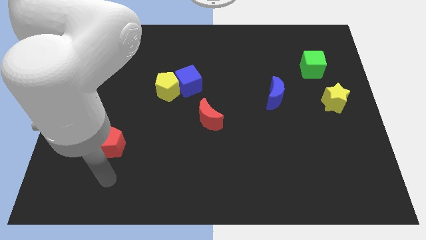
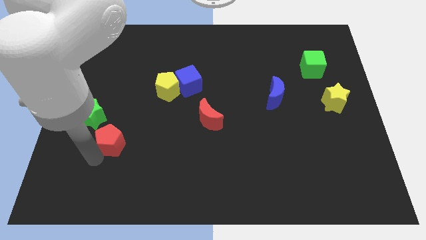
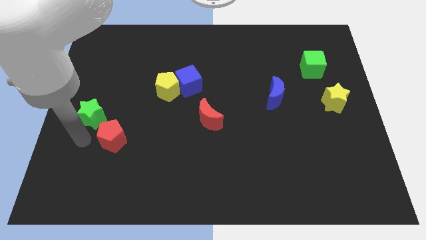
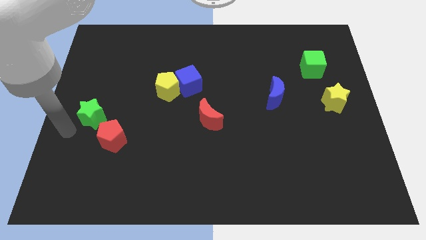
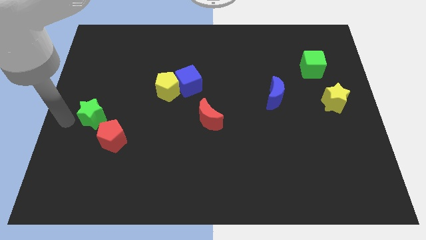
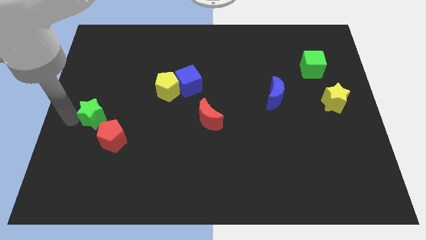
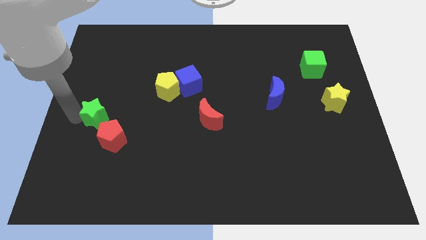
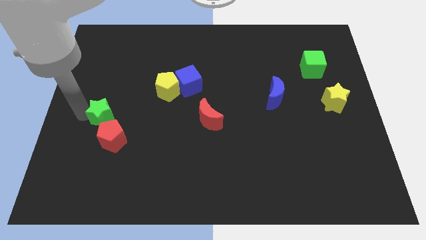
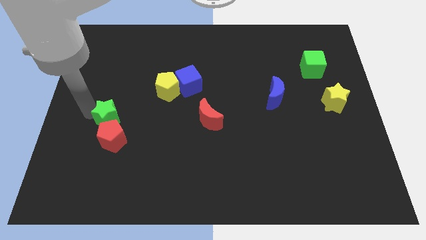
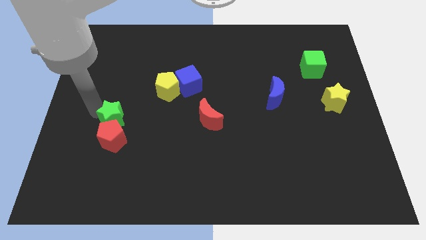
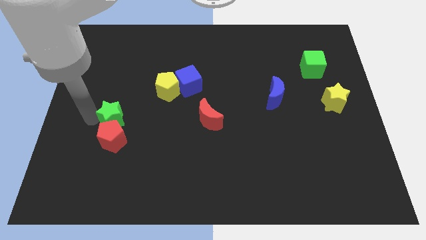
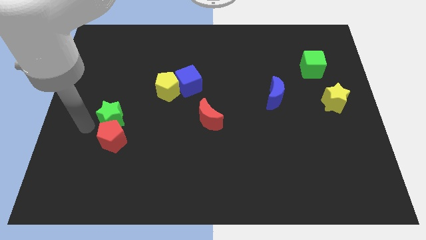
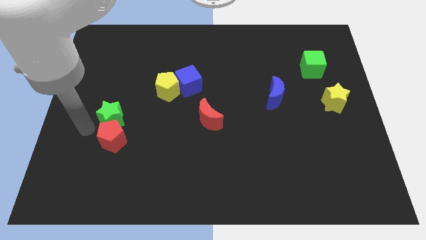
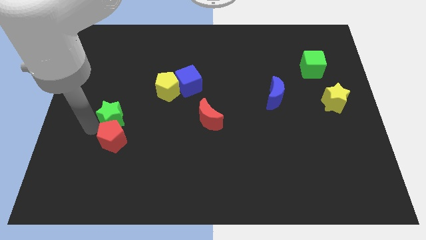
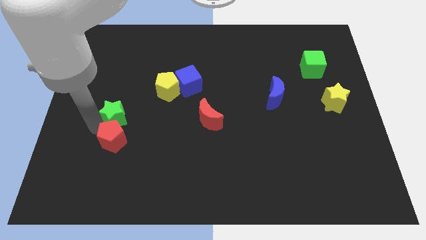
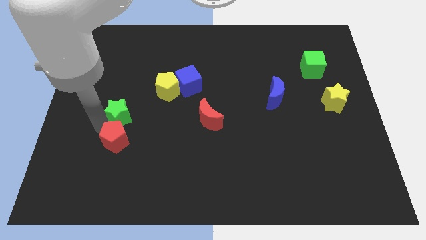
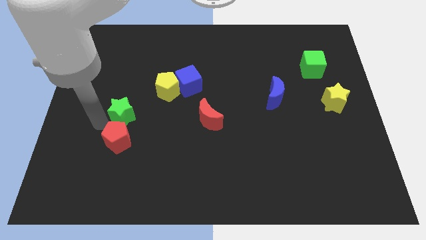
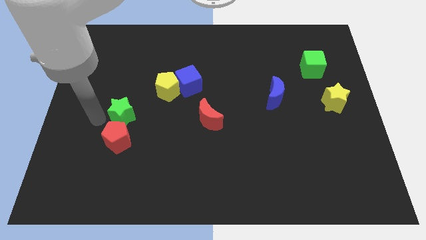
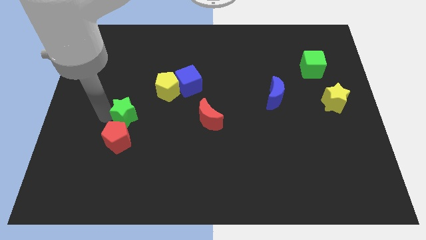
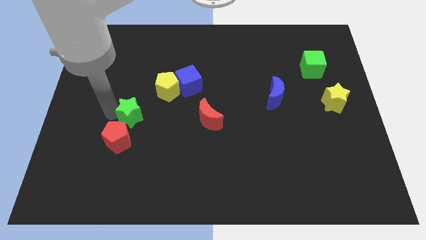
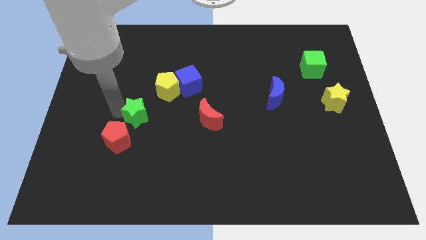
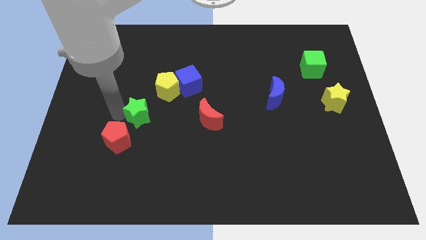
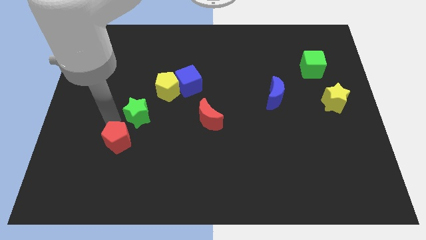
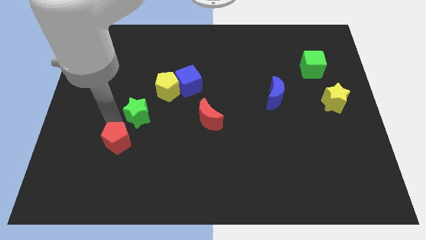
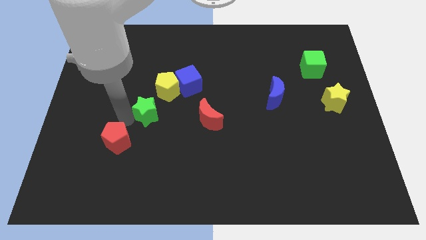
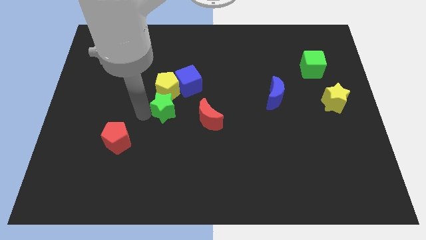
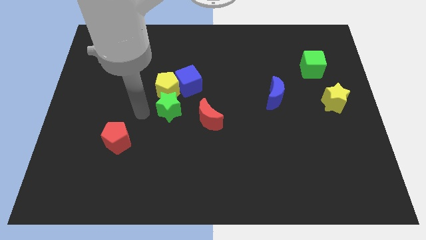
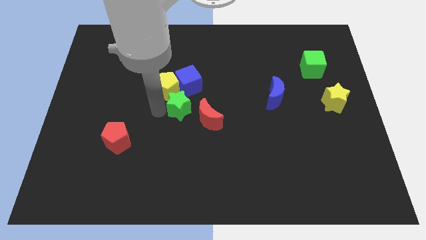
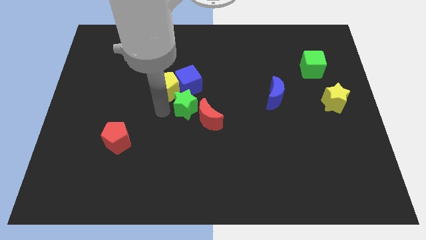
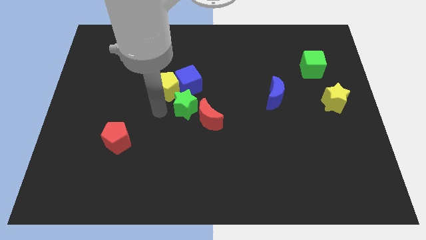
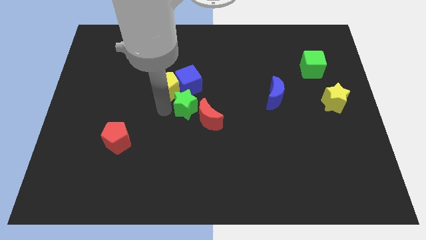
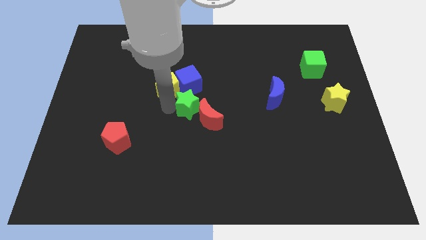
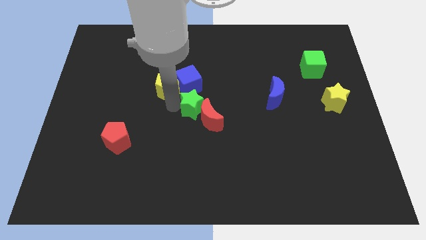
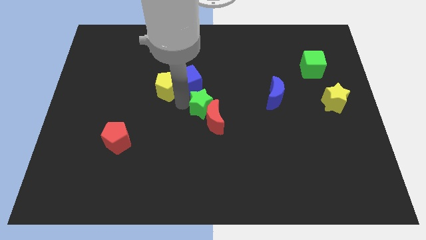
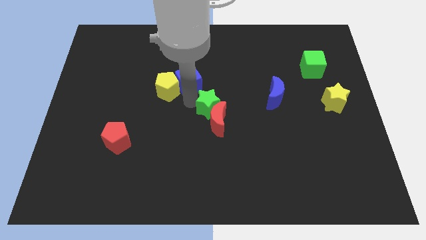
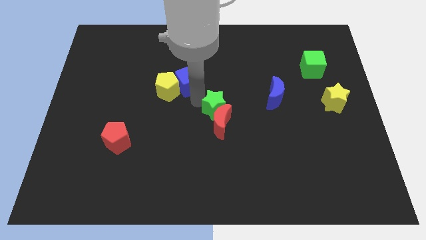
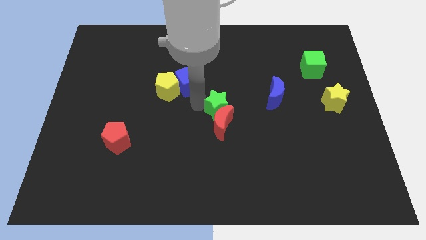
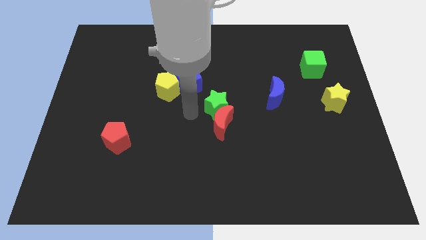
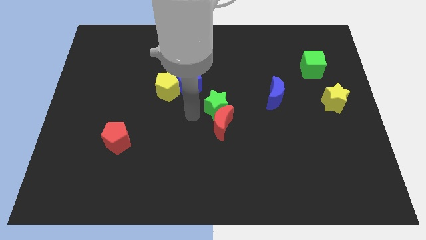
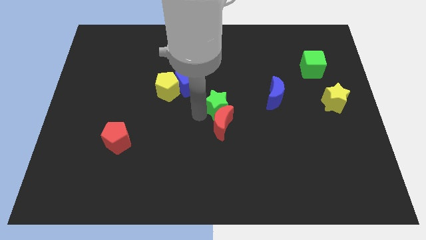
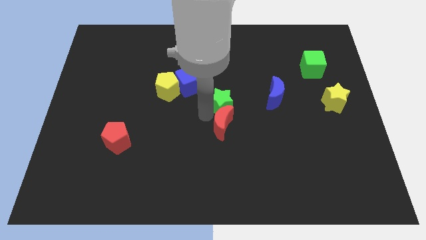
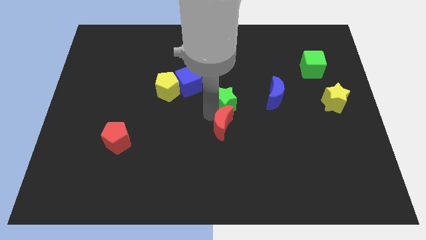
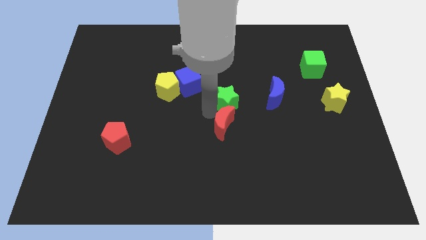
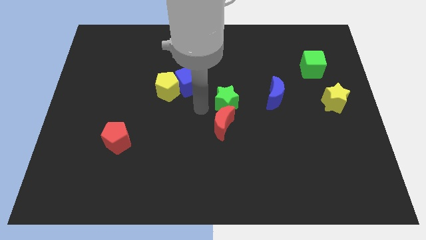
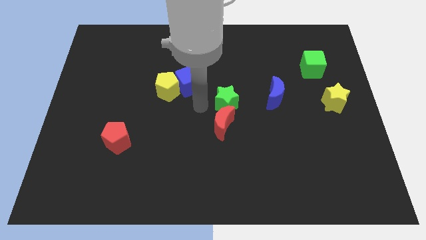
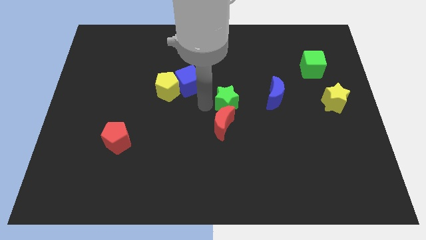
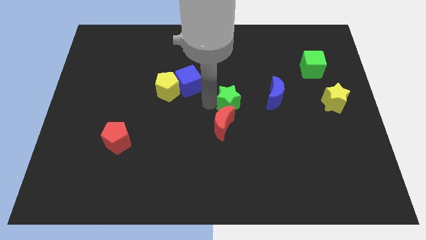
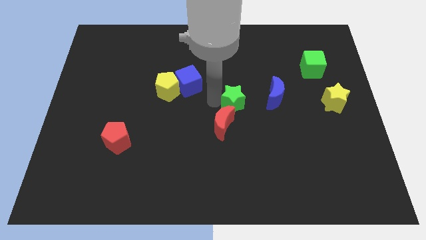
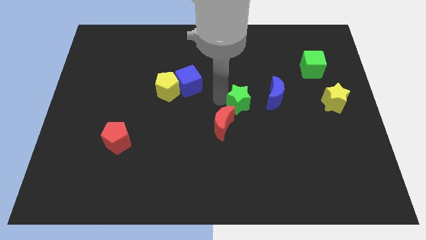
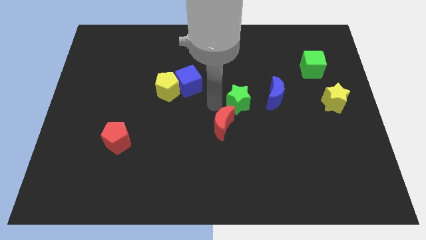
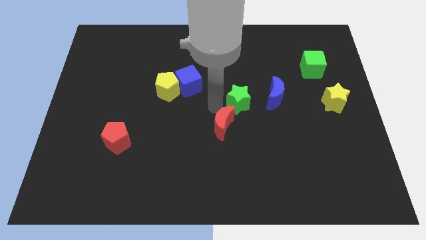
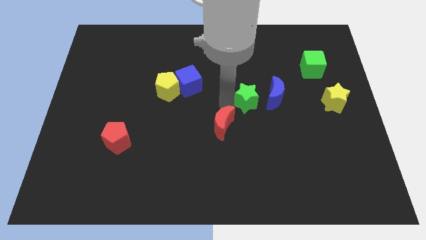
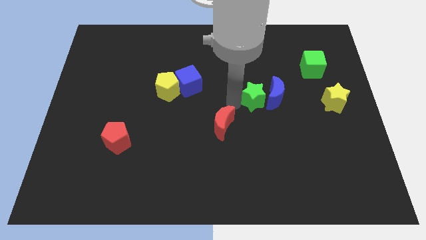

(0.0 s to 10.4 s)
push the green star next to the blue moon

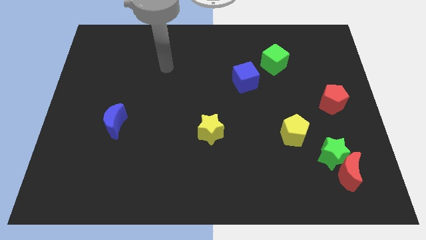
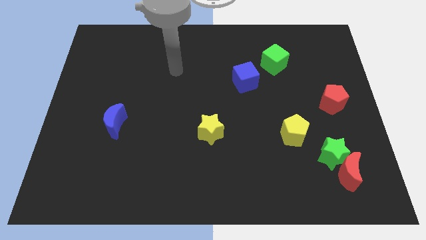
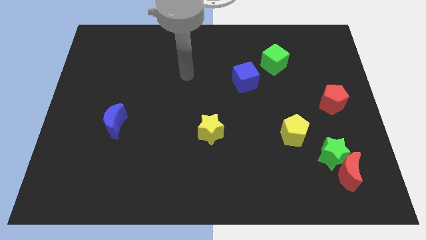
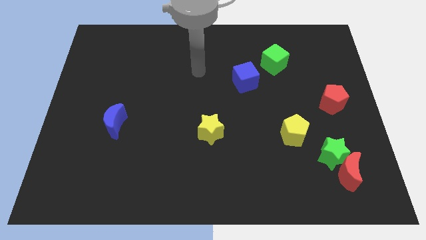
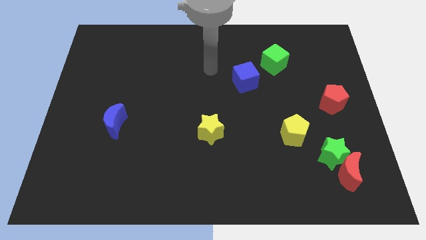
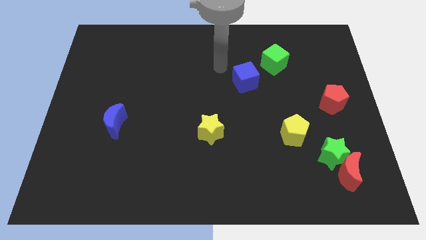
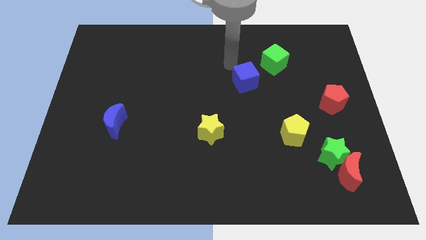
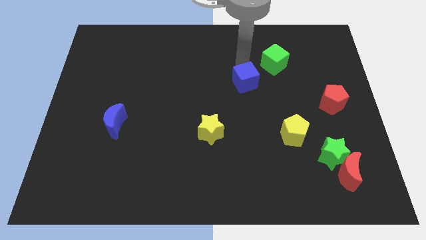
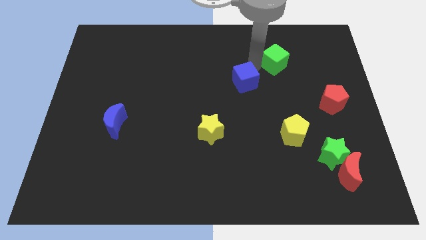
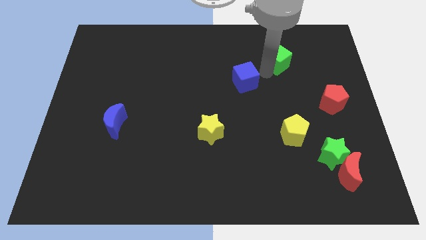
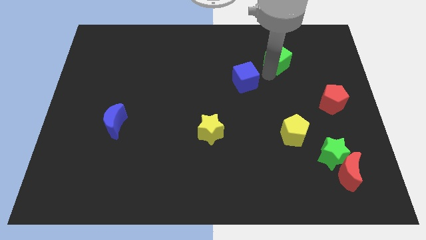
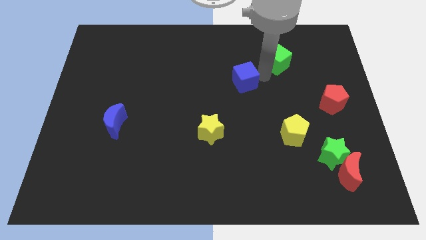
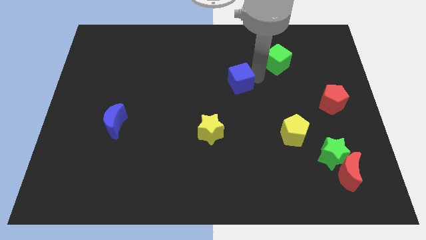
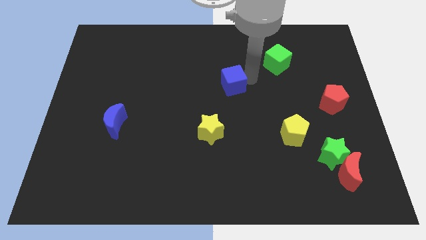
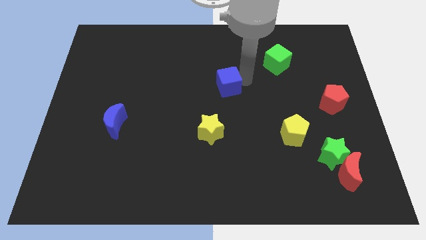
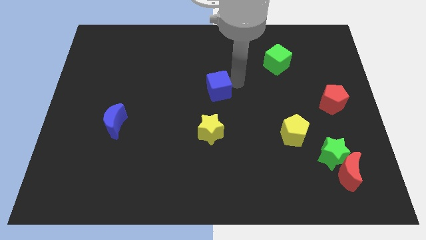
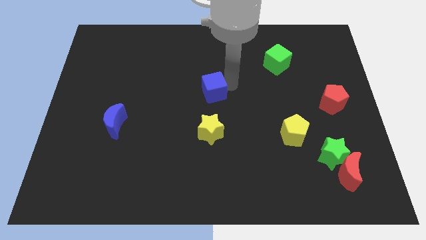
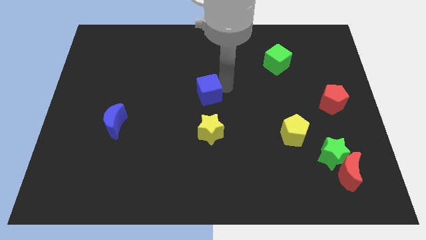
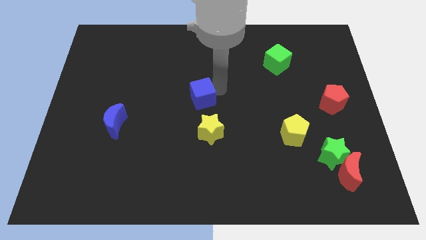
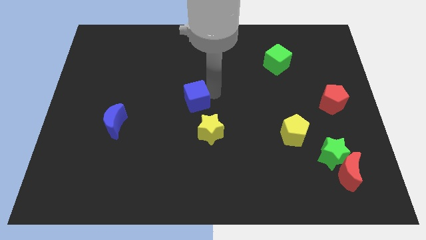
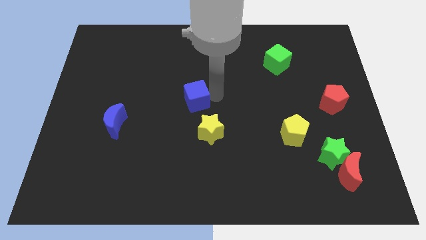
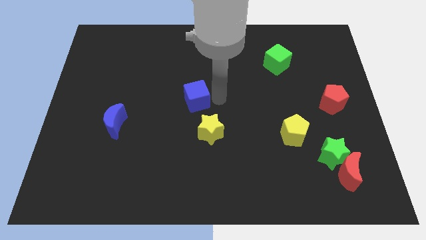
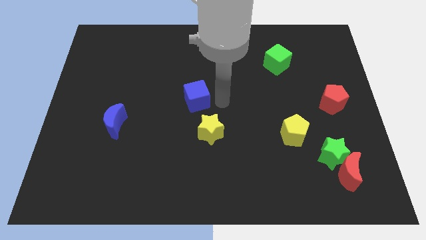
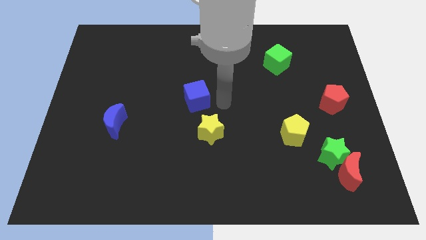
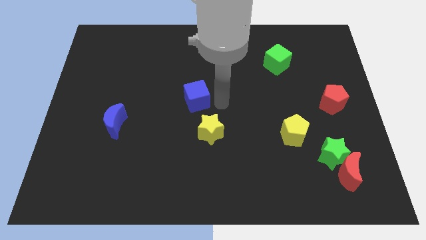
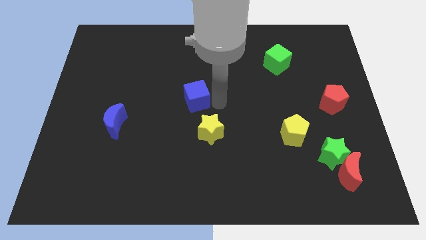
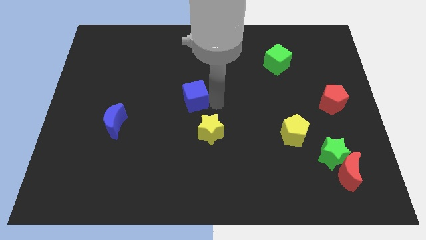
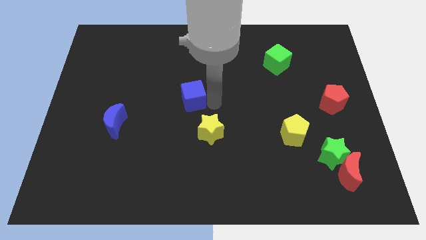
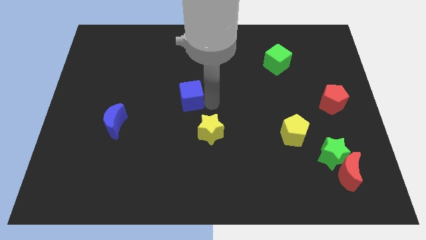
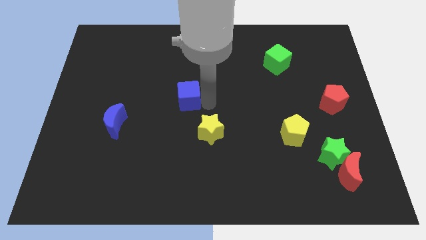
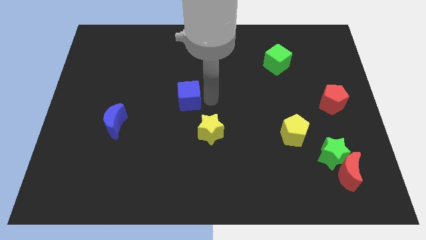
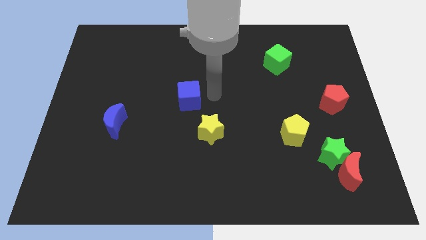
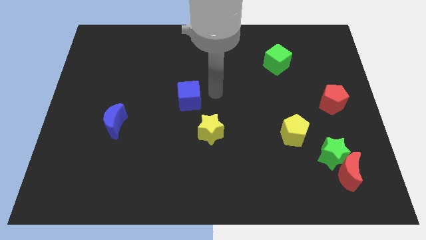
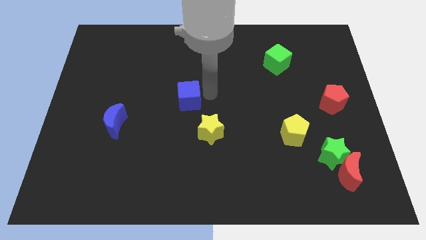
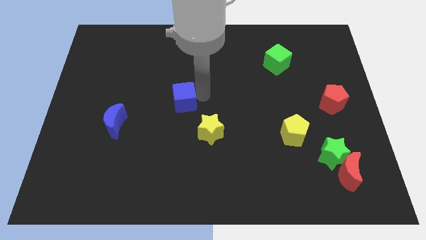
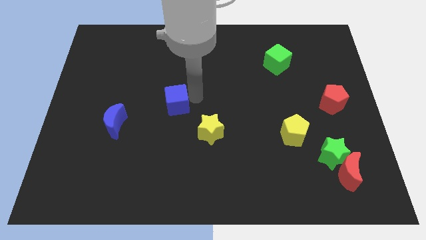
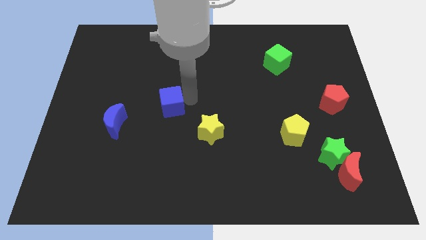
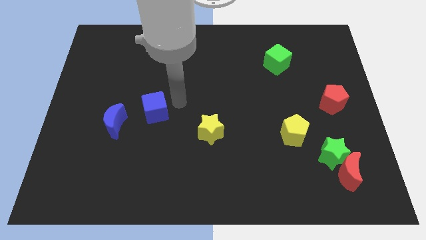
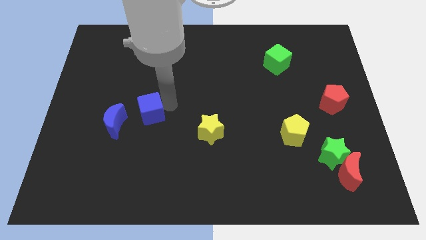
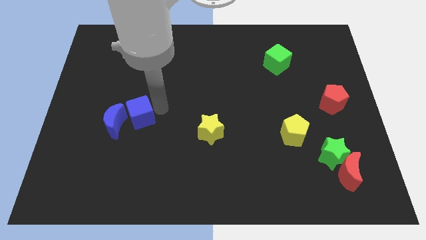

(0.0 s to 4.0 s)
put the blue cube towards the blue moon
